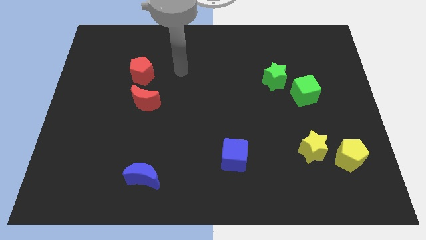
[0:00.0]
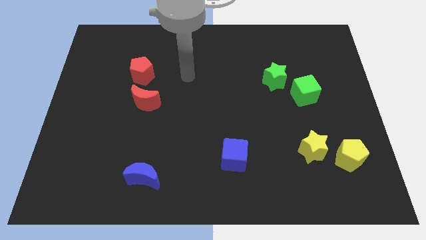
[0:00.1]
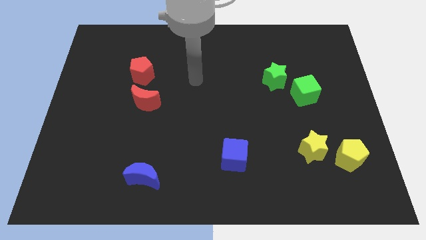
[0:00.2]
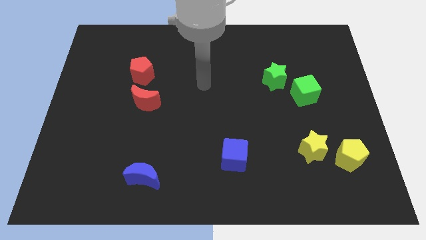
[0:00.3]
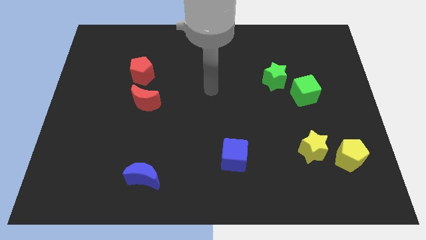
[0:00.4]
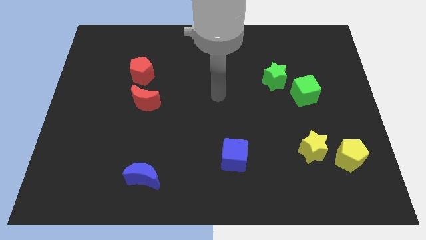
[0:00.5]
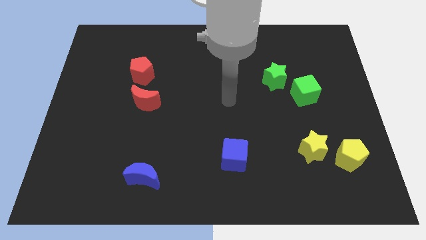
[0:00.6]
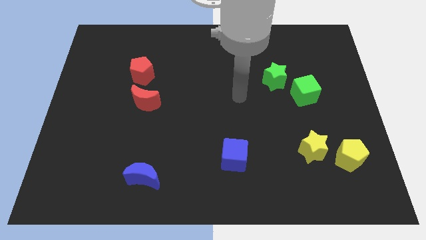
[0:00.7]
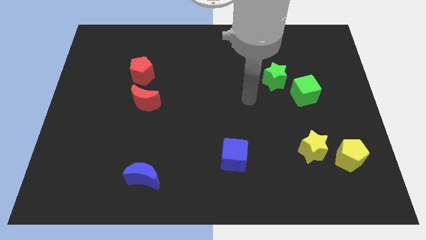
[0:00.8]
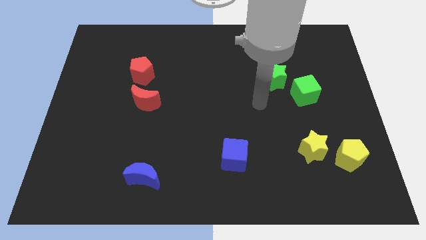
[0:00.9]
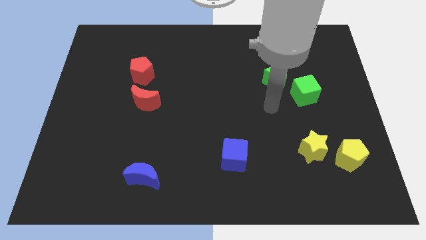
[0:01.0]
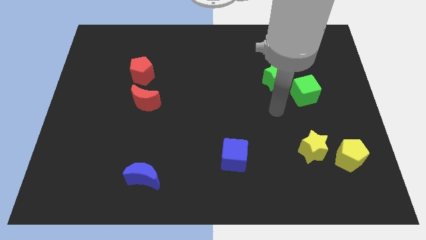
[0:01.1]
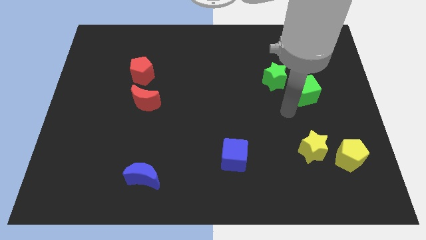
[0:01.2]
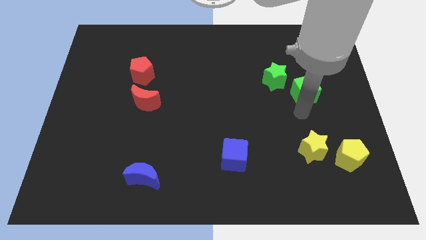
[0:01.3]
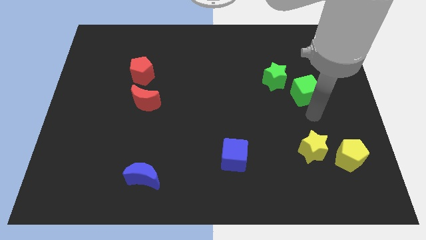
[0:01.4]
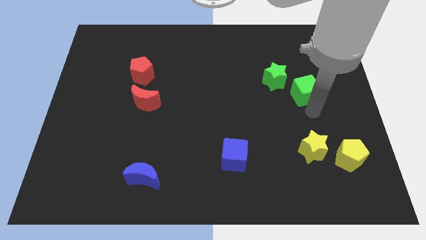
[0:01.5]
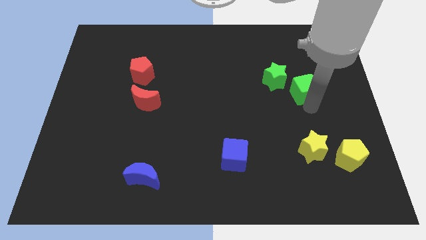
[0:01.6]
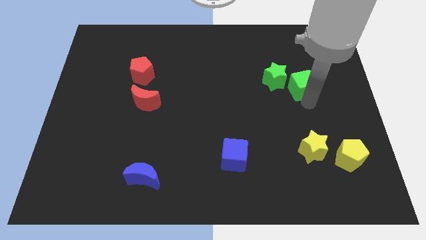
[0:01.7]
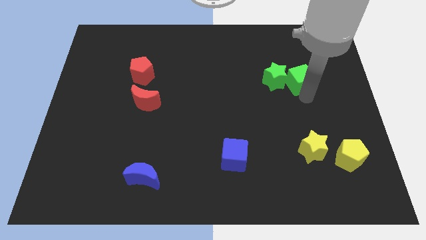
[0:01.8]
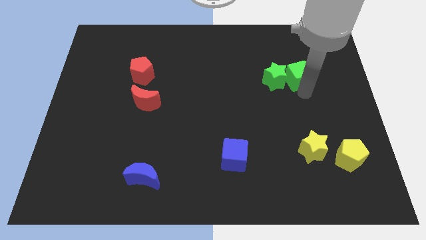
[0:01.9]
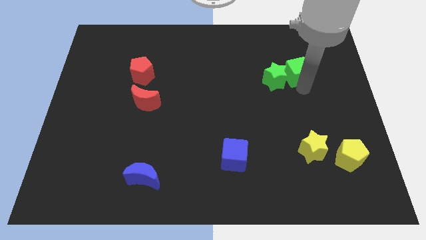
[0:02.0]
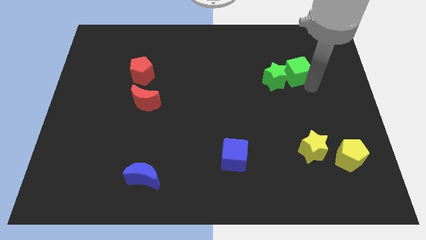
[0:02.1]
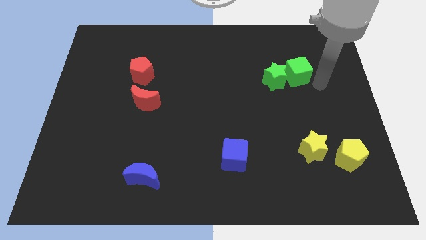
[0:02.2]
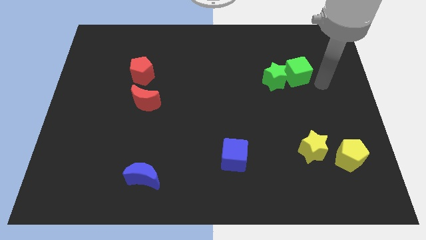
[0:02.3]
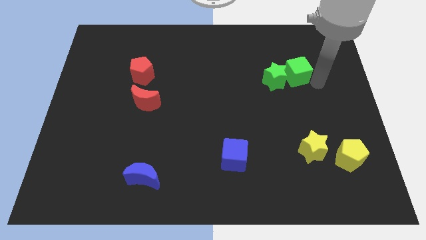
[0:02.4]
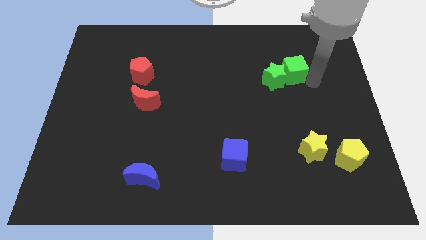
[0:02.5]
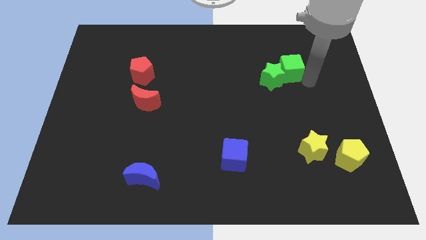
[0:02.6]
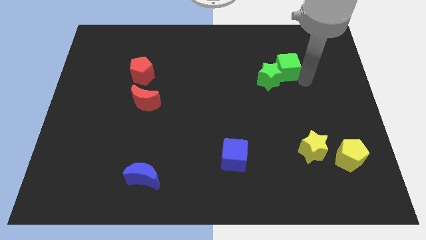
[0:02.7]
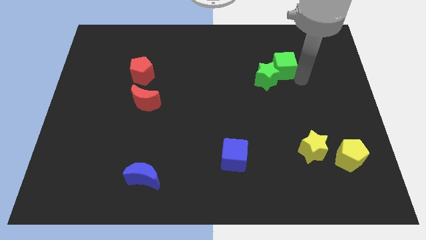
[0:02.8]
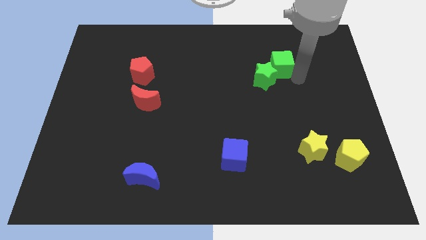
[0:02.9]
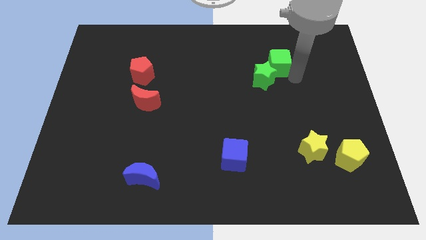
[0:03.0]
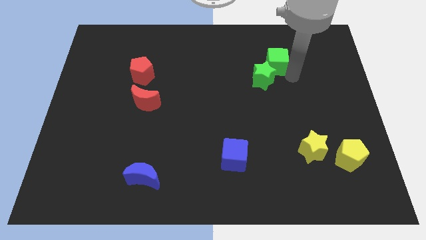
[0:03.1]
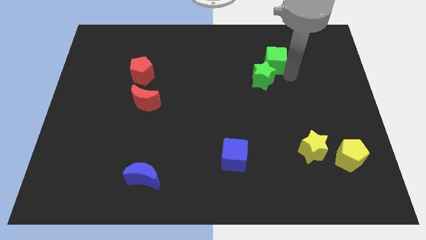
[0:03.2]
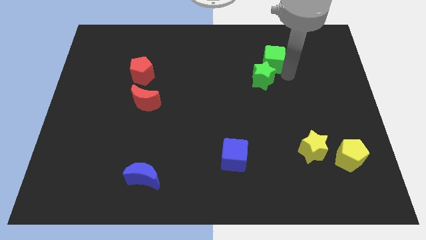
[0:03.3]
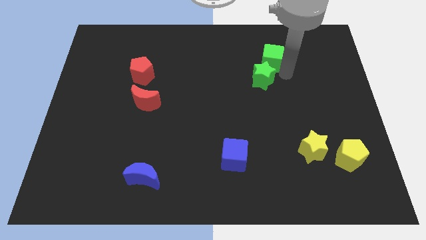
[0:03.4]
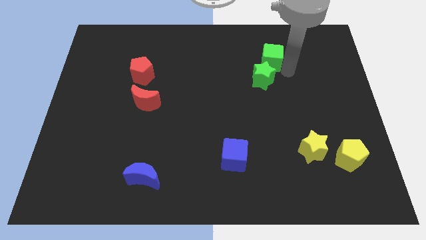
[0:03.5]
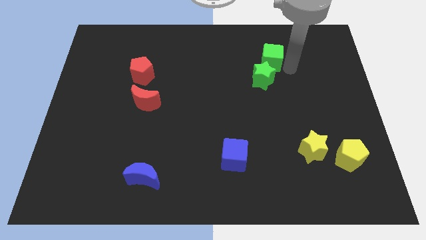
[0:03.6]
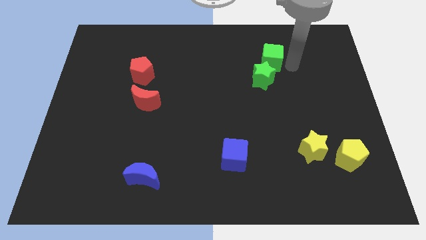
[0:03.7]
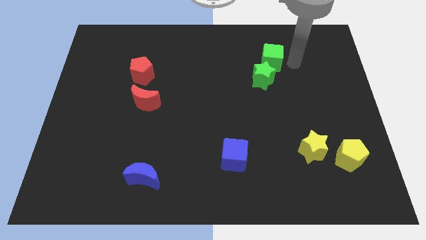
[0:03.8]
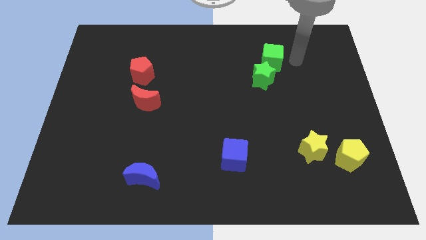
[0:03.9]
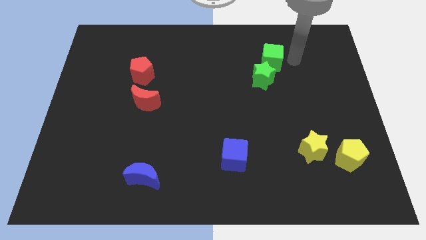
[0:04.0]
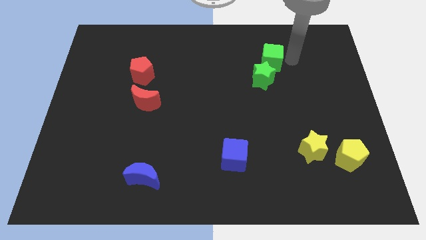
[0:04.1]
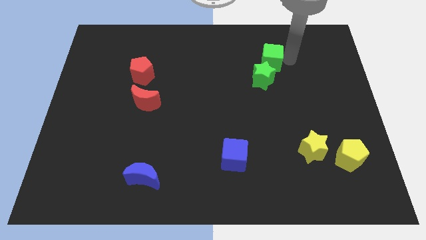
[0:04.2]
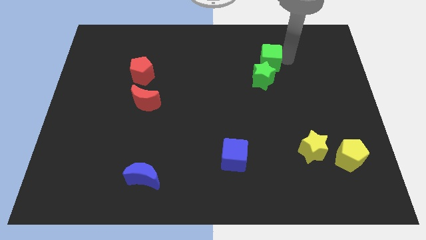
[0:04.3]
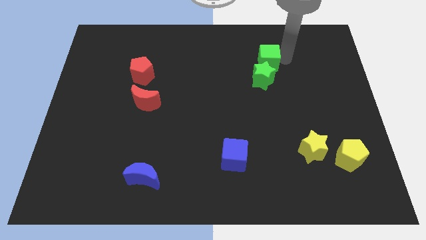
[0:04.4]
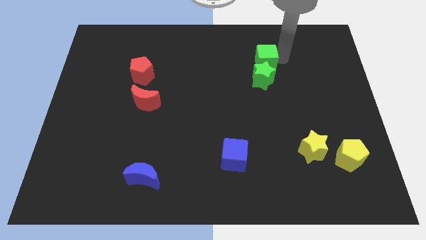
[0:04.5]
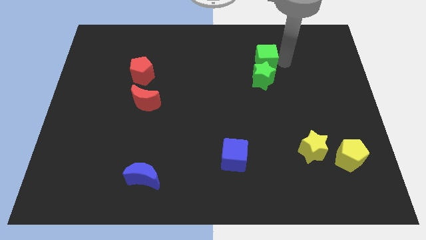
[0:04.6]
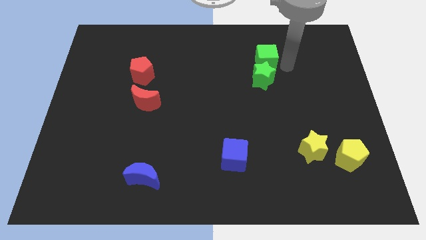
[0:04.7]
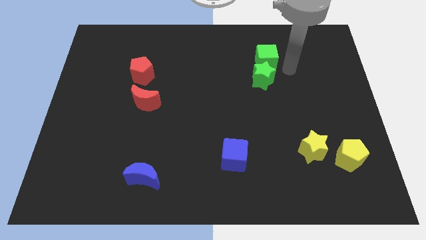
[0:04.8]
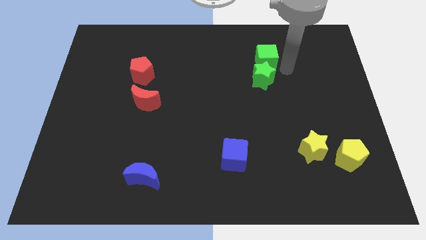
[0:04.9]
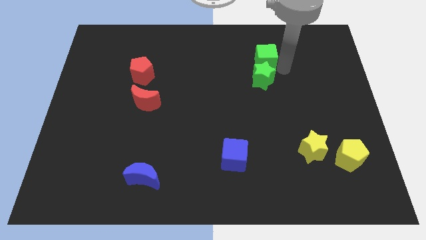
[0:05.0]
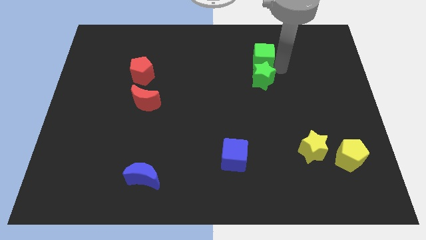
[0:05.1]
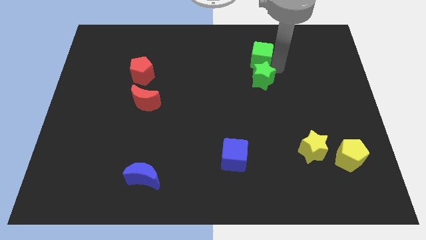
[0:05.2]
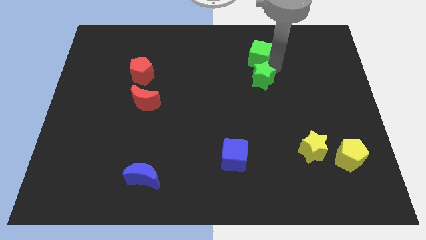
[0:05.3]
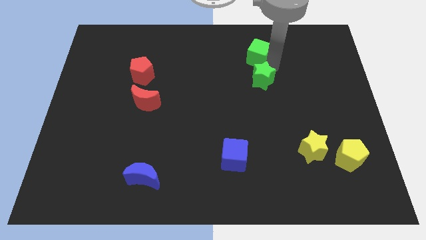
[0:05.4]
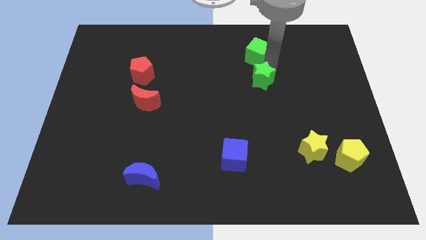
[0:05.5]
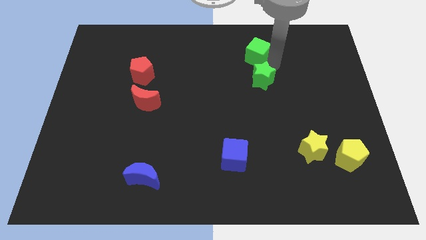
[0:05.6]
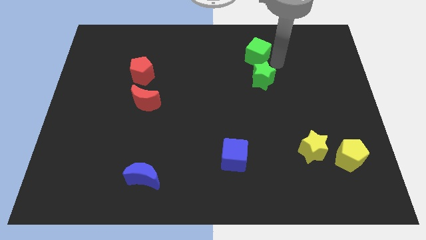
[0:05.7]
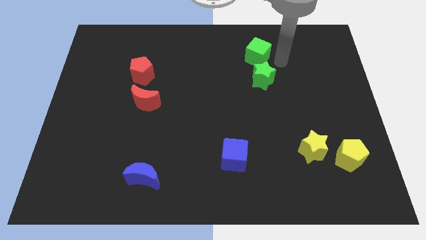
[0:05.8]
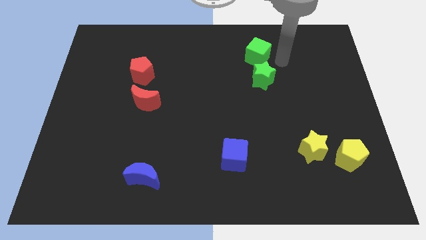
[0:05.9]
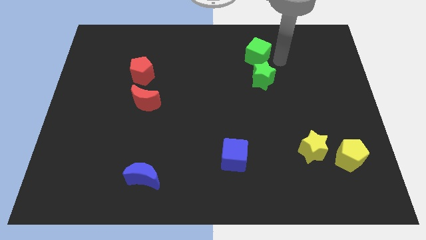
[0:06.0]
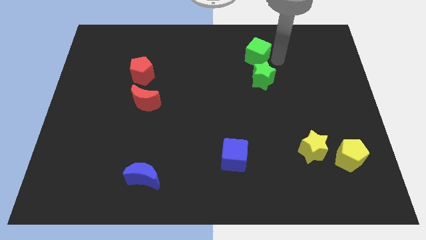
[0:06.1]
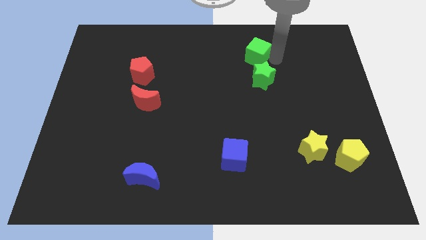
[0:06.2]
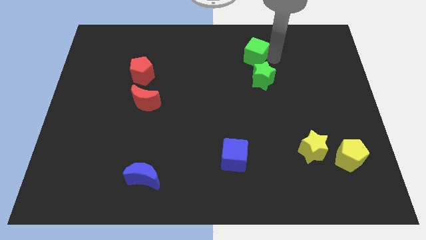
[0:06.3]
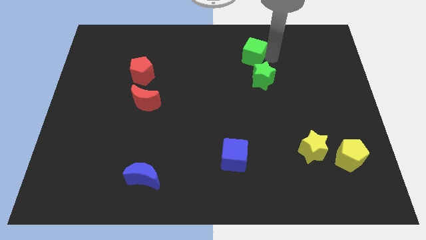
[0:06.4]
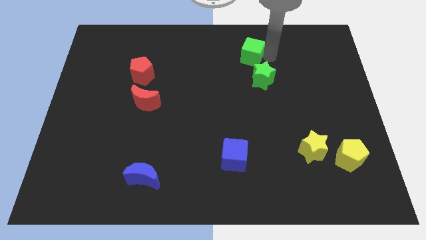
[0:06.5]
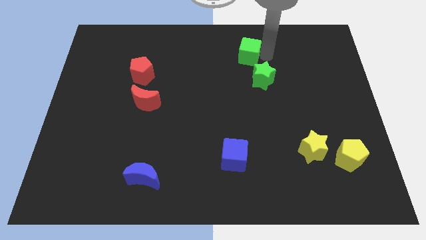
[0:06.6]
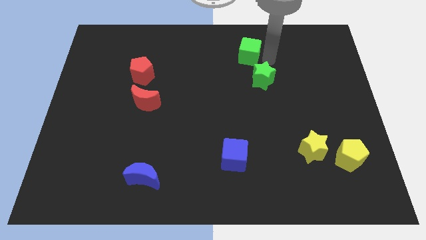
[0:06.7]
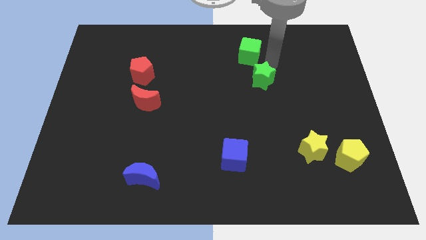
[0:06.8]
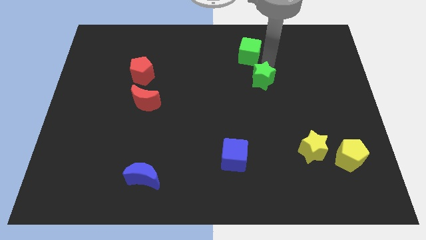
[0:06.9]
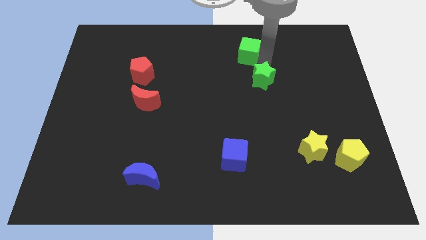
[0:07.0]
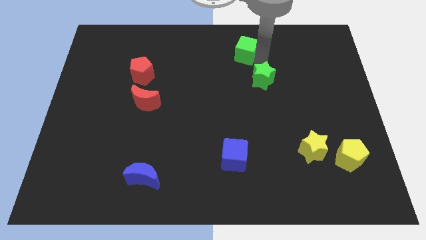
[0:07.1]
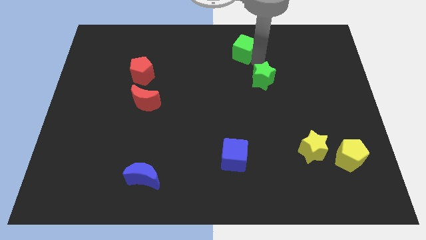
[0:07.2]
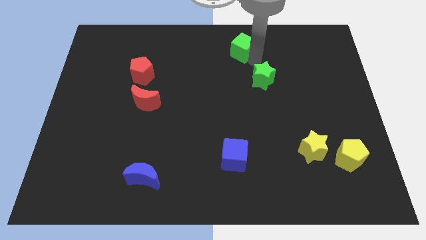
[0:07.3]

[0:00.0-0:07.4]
slide the green cube to the top side
